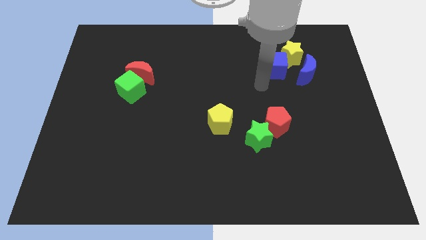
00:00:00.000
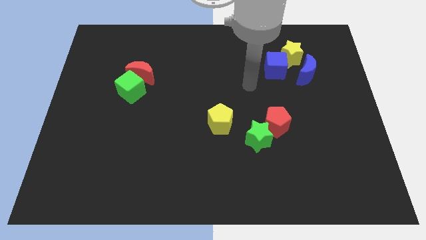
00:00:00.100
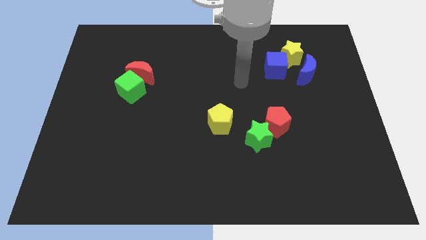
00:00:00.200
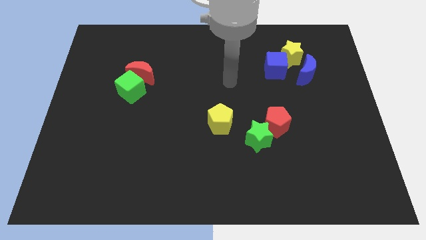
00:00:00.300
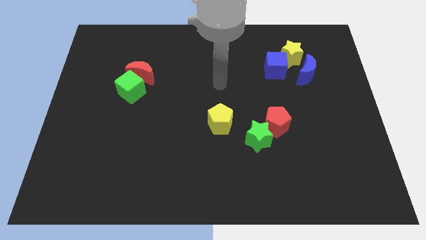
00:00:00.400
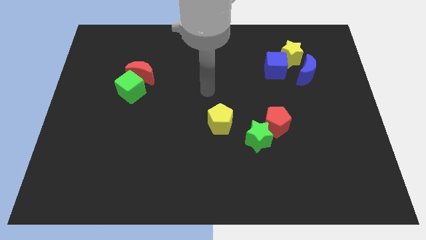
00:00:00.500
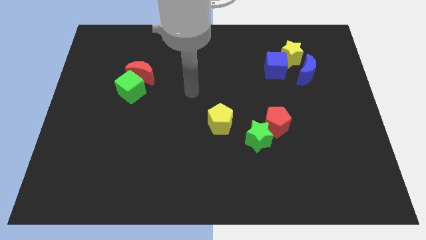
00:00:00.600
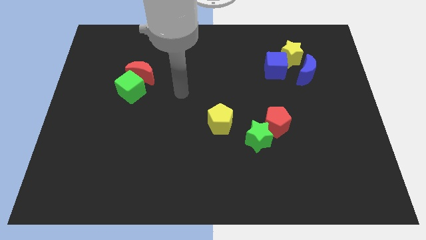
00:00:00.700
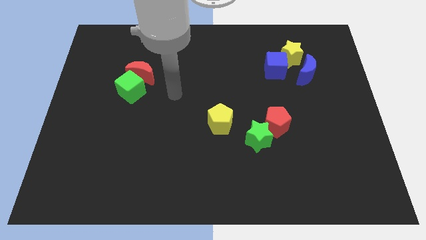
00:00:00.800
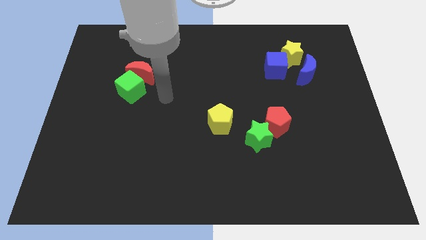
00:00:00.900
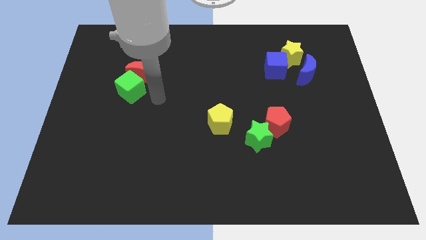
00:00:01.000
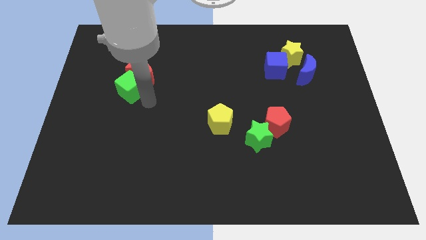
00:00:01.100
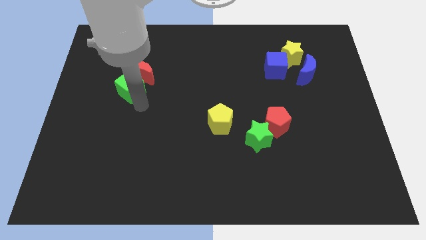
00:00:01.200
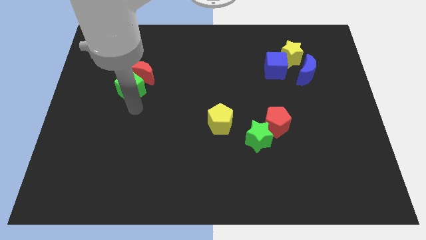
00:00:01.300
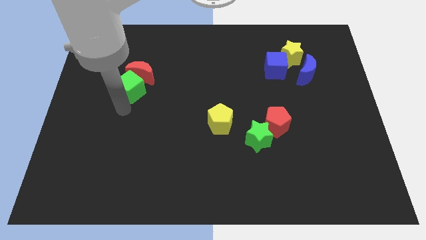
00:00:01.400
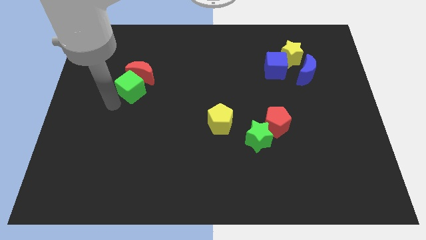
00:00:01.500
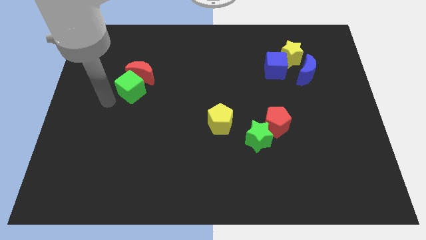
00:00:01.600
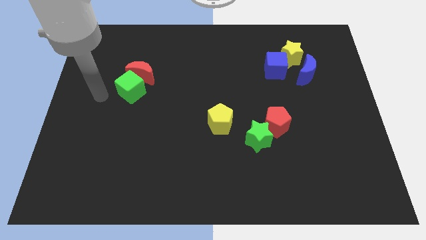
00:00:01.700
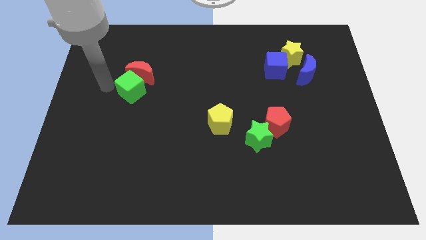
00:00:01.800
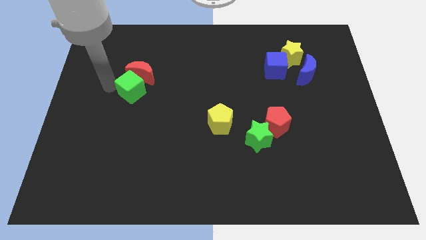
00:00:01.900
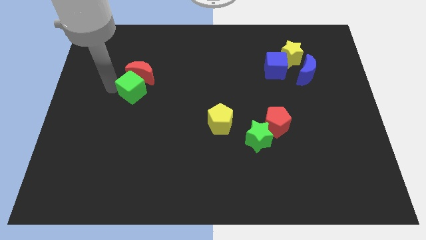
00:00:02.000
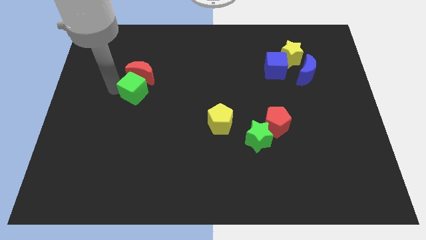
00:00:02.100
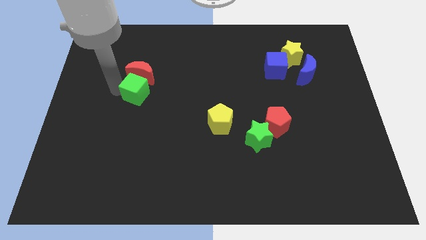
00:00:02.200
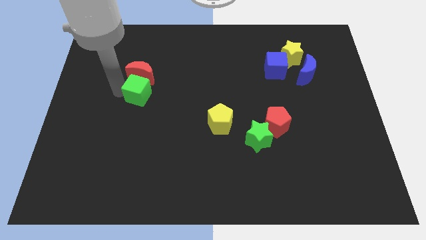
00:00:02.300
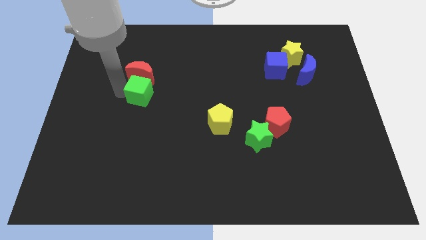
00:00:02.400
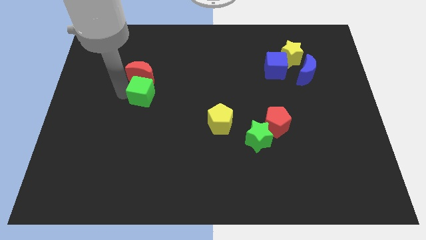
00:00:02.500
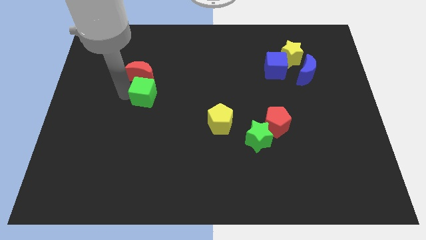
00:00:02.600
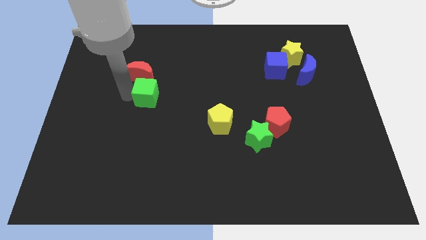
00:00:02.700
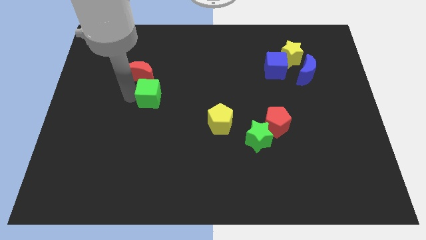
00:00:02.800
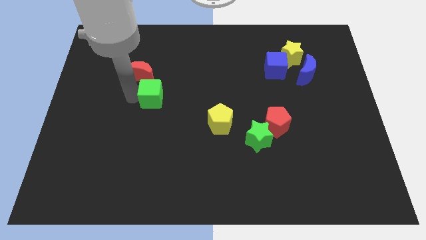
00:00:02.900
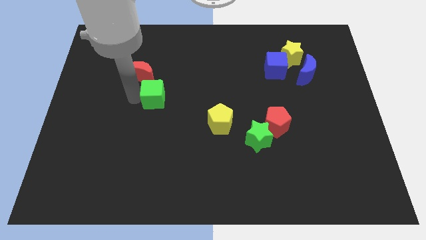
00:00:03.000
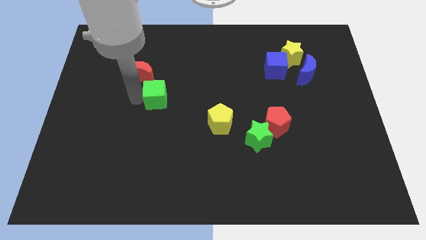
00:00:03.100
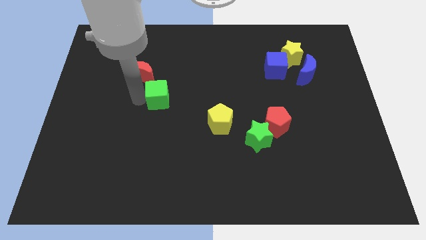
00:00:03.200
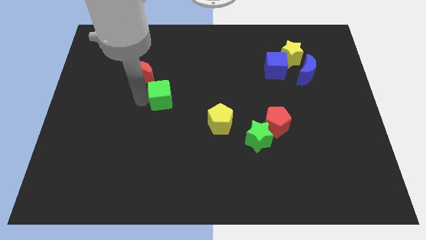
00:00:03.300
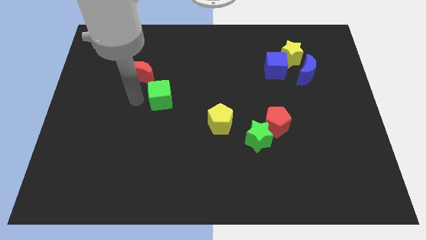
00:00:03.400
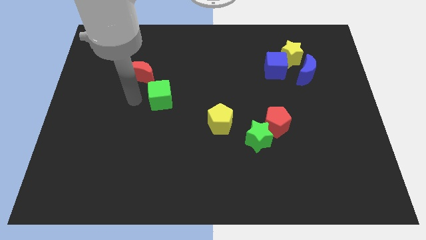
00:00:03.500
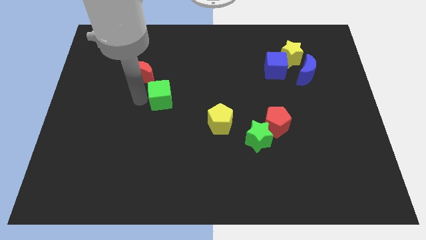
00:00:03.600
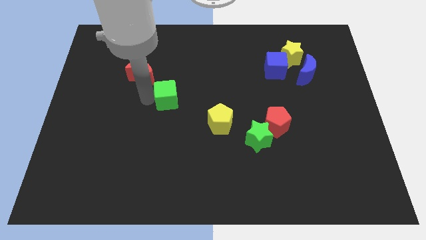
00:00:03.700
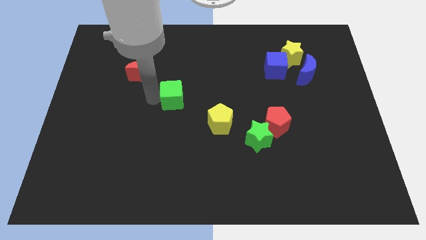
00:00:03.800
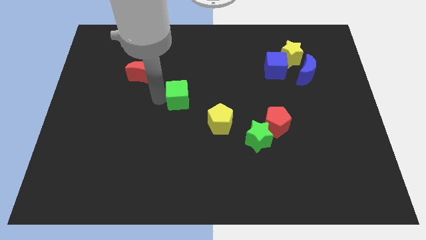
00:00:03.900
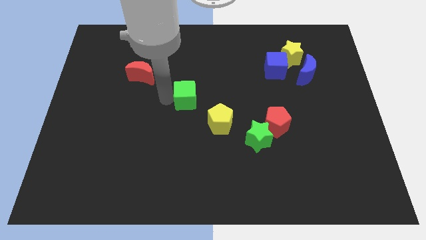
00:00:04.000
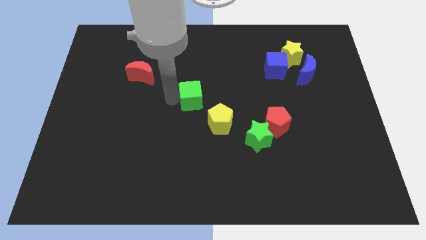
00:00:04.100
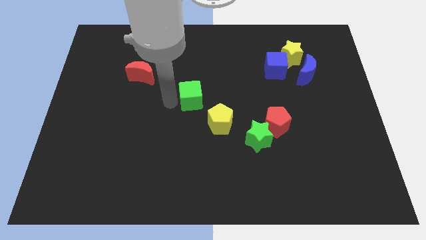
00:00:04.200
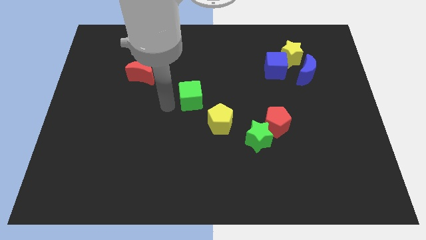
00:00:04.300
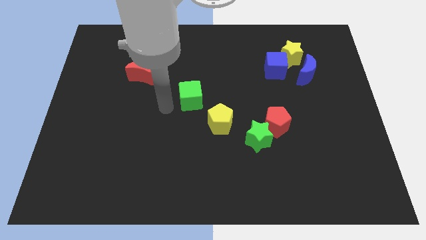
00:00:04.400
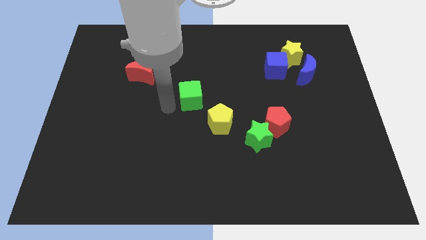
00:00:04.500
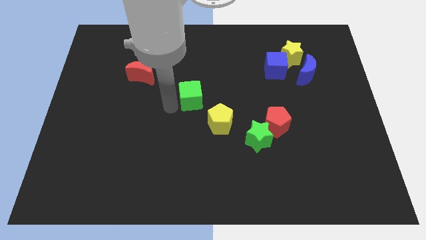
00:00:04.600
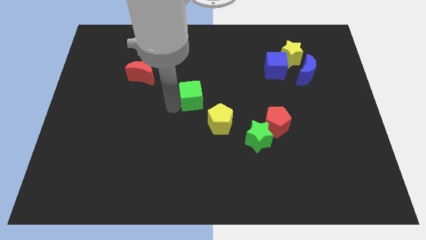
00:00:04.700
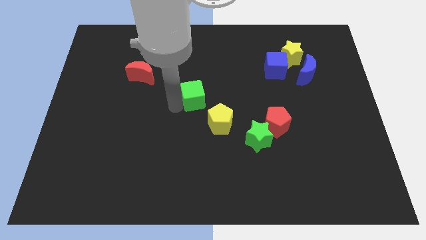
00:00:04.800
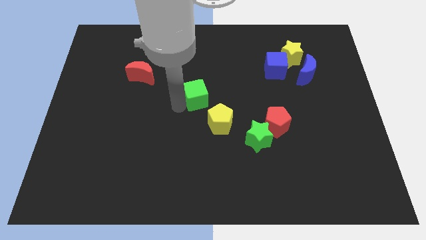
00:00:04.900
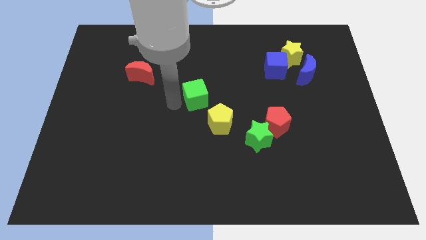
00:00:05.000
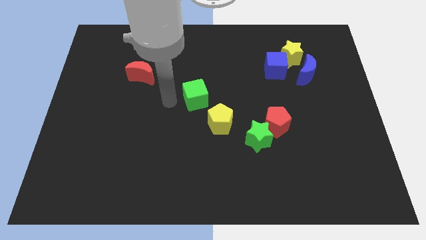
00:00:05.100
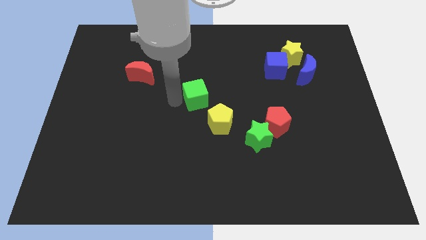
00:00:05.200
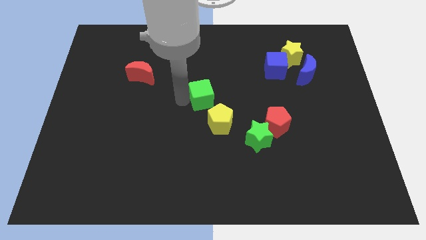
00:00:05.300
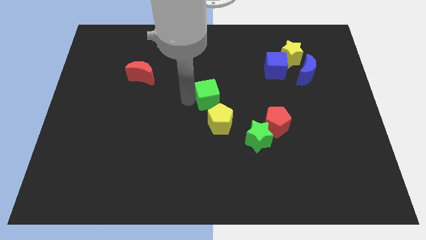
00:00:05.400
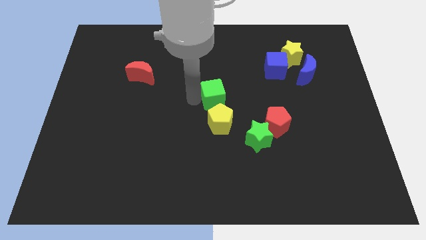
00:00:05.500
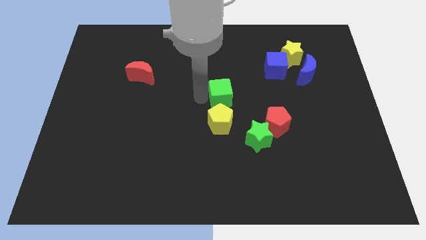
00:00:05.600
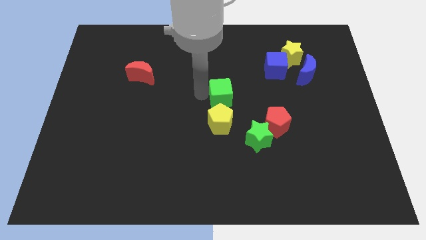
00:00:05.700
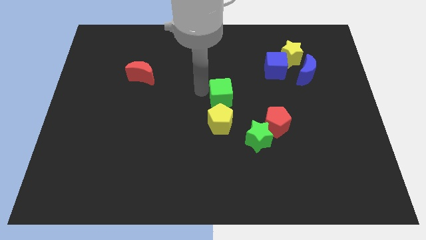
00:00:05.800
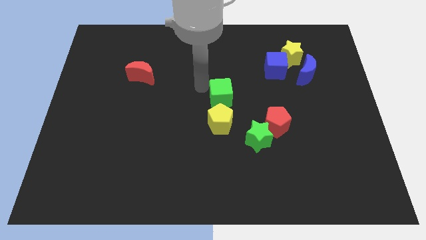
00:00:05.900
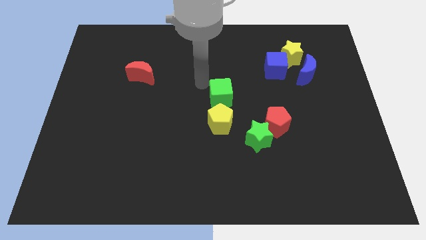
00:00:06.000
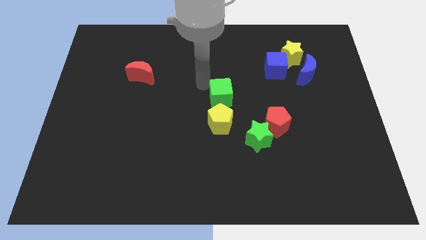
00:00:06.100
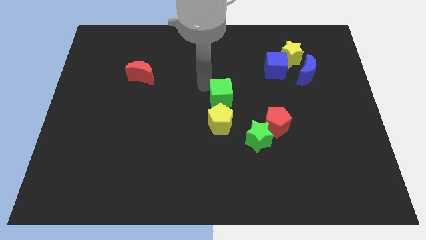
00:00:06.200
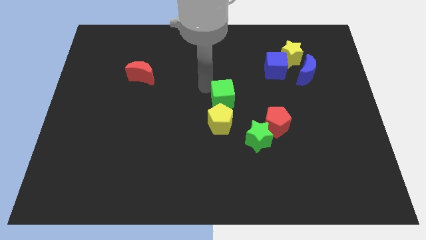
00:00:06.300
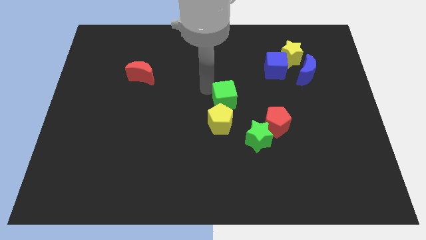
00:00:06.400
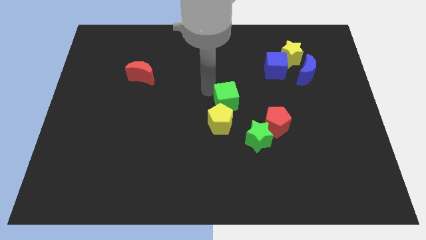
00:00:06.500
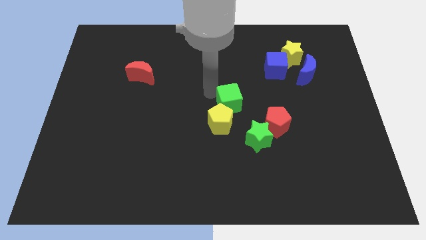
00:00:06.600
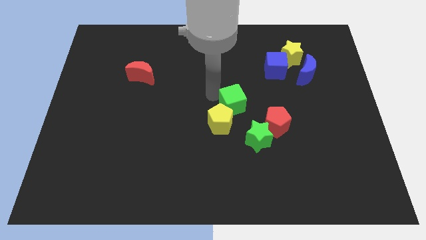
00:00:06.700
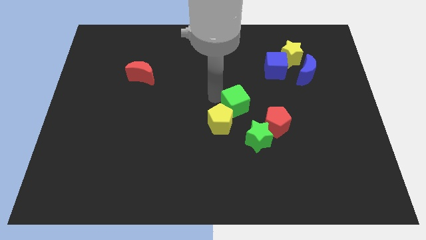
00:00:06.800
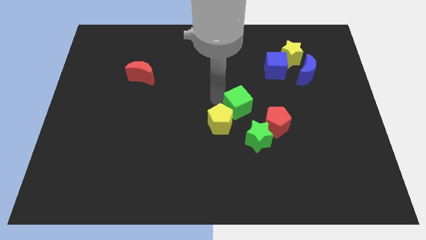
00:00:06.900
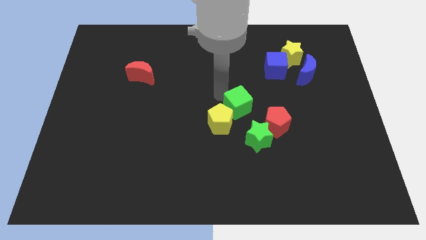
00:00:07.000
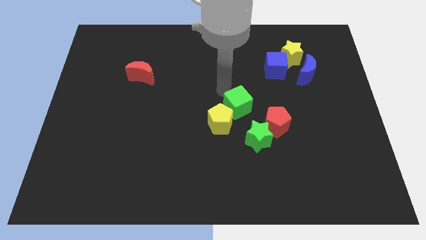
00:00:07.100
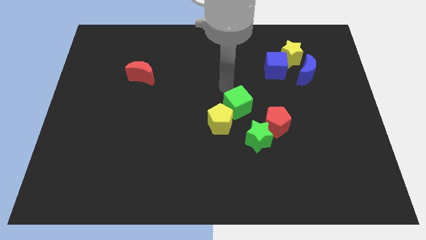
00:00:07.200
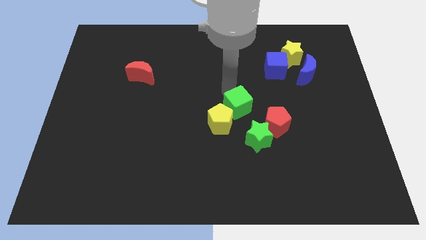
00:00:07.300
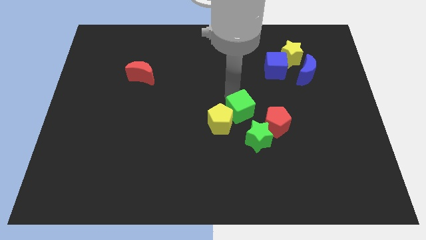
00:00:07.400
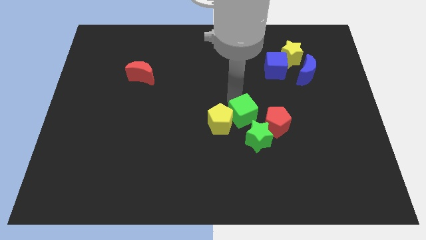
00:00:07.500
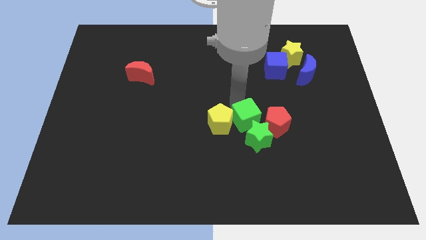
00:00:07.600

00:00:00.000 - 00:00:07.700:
slide the green cube close to the green star
